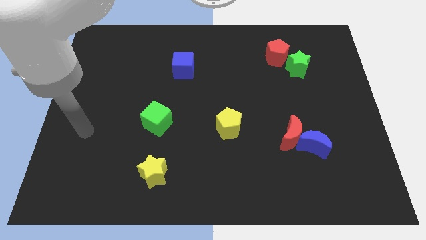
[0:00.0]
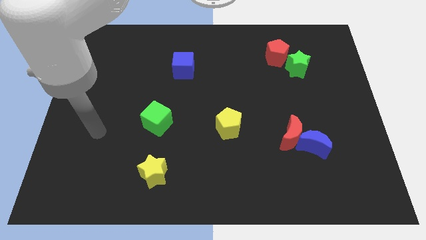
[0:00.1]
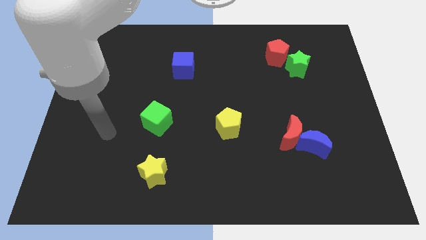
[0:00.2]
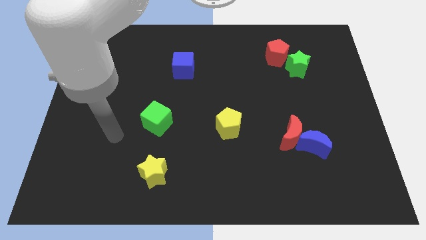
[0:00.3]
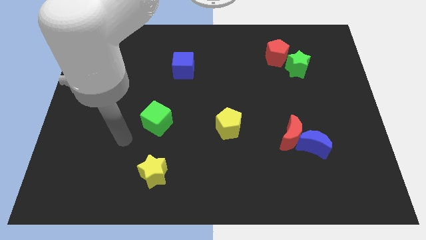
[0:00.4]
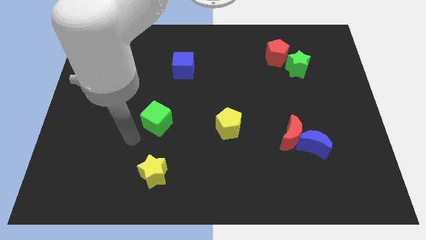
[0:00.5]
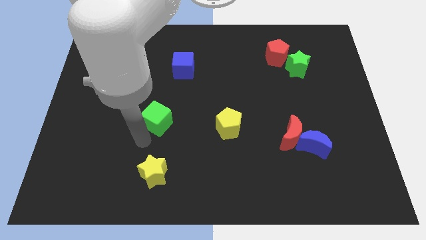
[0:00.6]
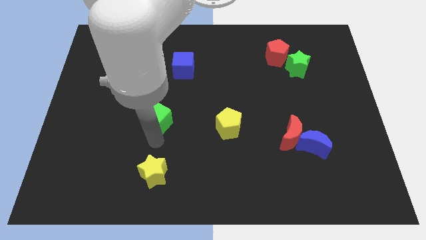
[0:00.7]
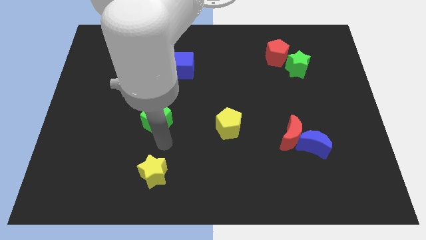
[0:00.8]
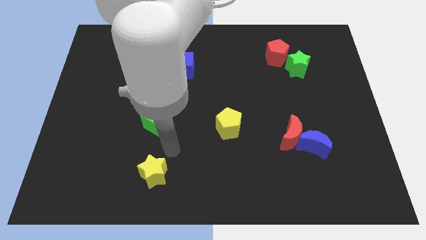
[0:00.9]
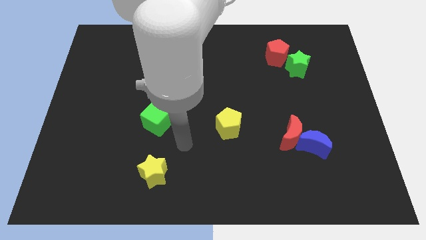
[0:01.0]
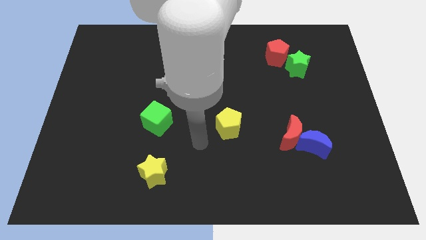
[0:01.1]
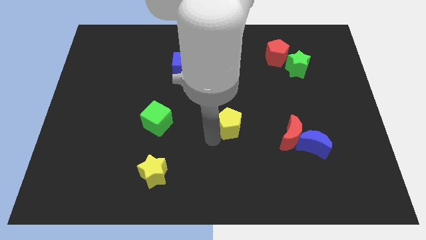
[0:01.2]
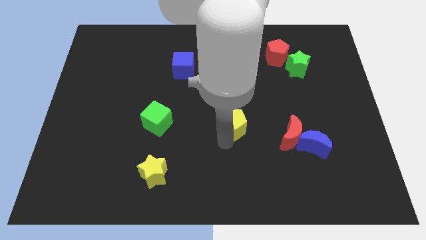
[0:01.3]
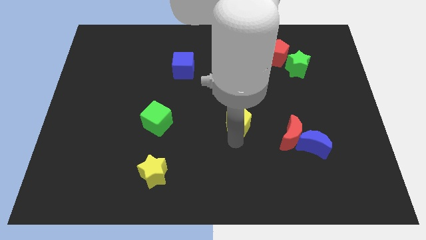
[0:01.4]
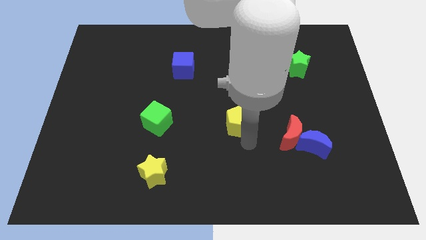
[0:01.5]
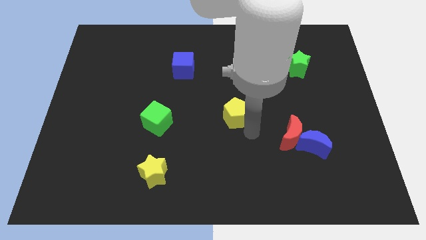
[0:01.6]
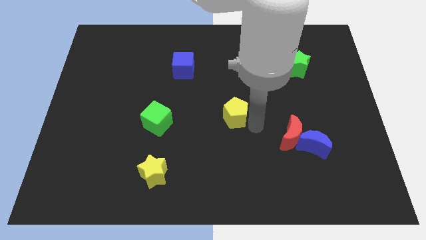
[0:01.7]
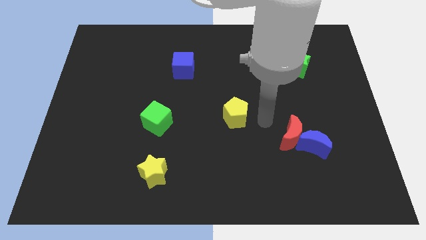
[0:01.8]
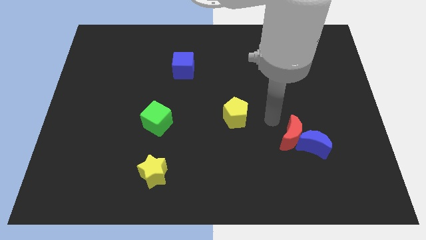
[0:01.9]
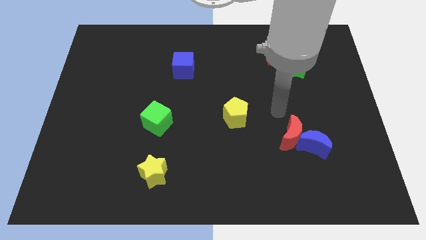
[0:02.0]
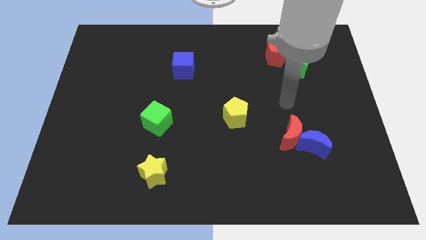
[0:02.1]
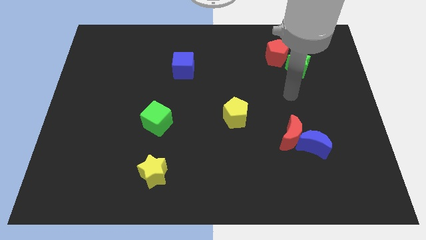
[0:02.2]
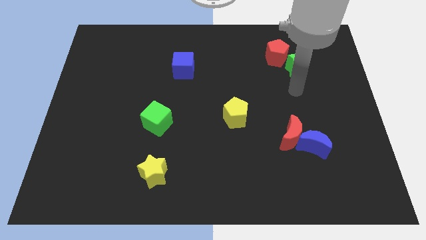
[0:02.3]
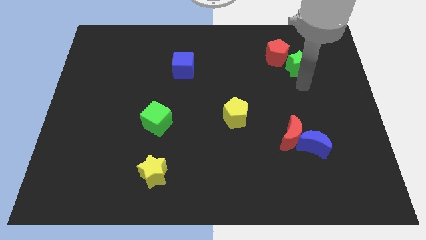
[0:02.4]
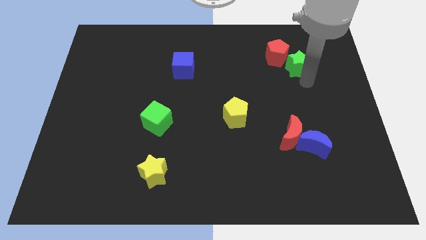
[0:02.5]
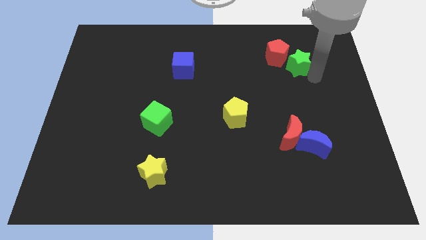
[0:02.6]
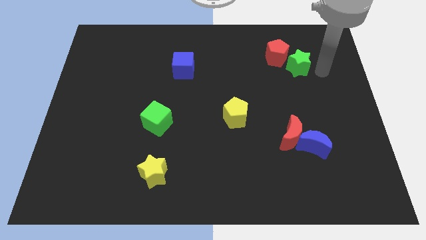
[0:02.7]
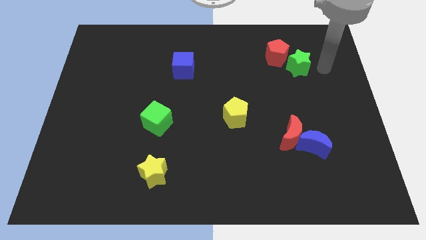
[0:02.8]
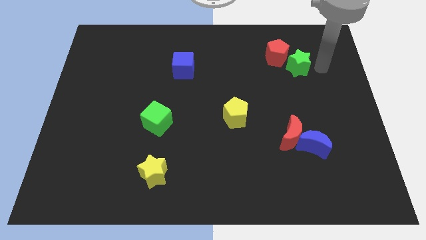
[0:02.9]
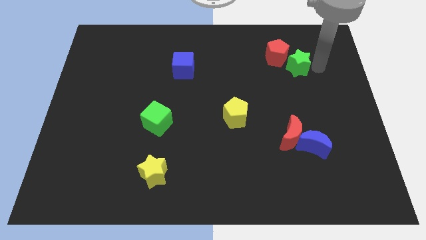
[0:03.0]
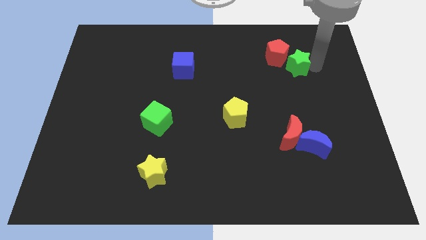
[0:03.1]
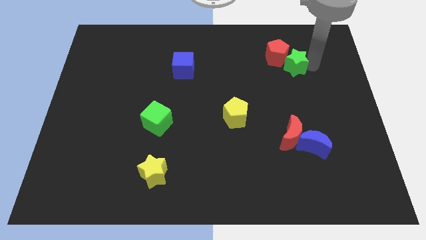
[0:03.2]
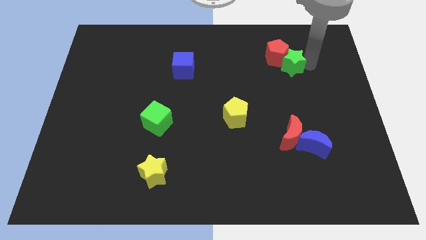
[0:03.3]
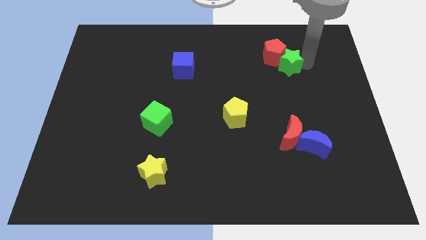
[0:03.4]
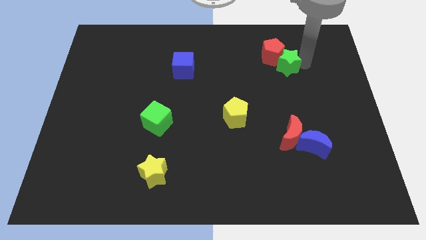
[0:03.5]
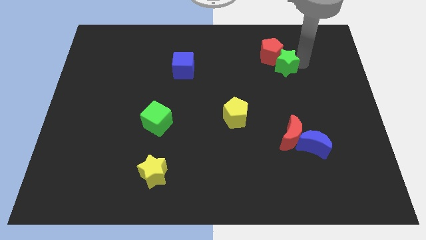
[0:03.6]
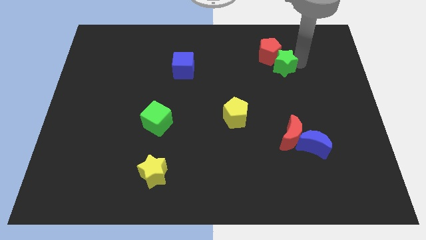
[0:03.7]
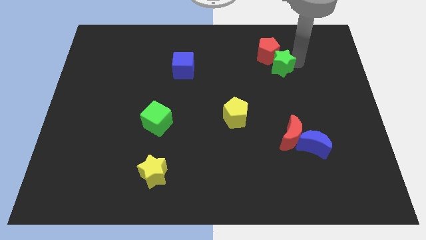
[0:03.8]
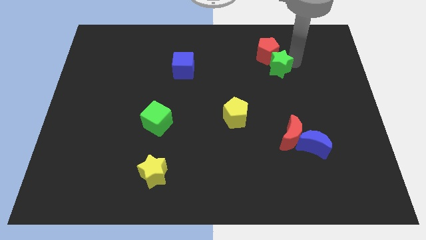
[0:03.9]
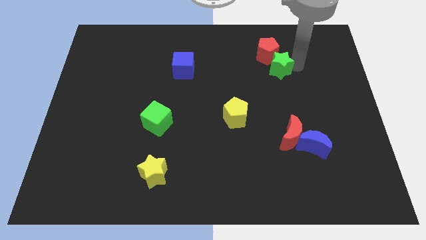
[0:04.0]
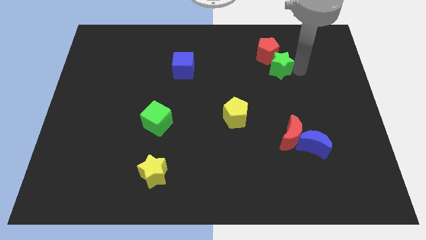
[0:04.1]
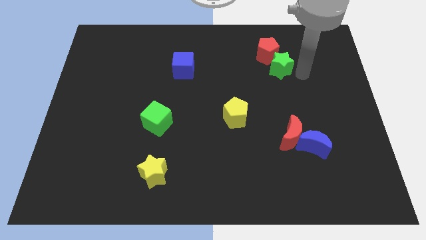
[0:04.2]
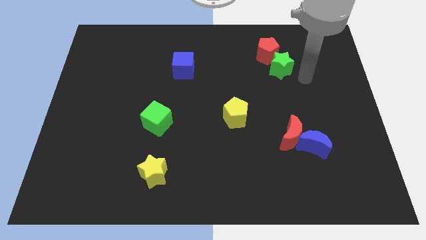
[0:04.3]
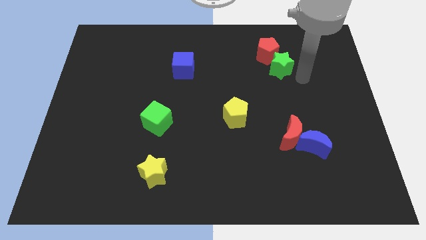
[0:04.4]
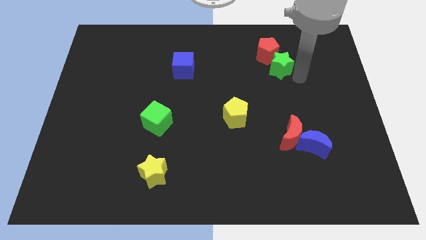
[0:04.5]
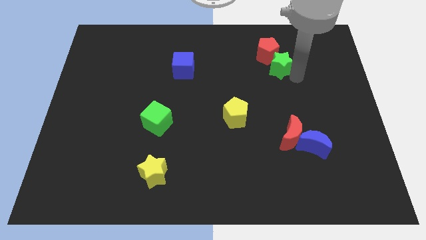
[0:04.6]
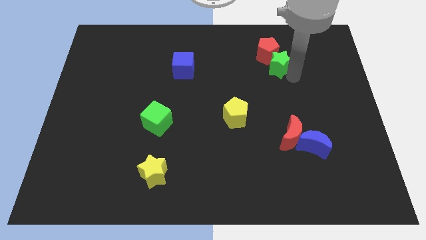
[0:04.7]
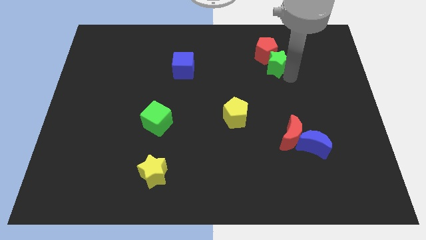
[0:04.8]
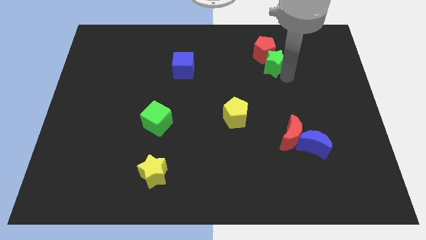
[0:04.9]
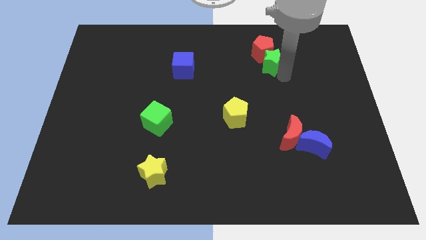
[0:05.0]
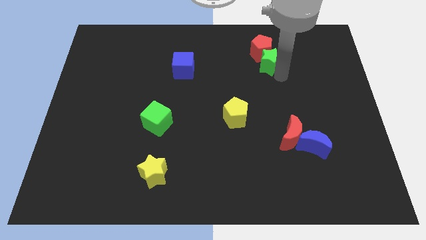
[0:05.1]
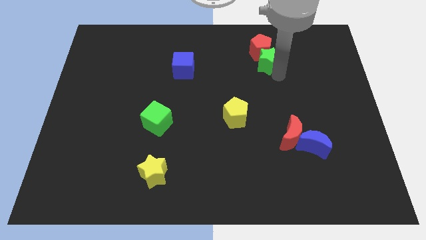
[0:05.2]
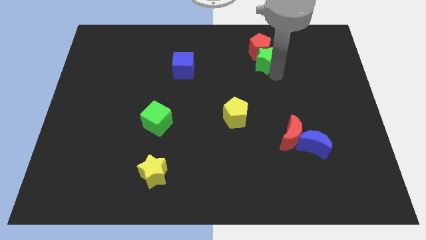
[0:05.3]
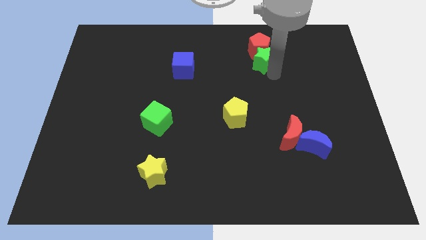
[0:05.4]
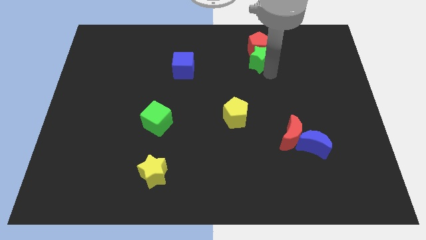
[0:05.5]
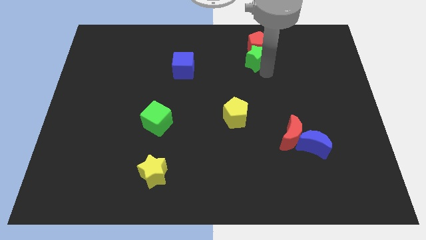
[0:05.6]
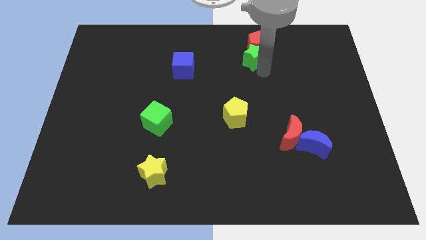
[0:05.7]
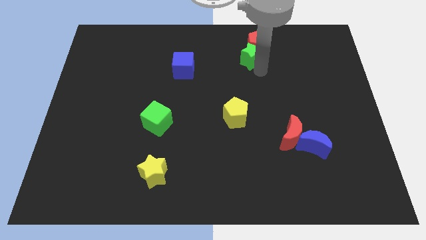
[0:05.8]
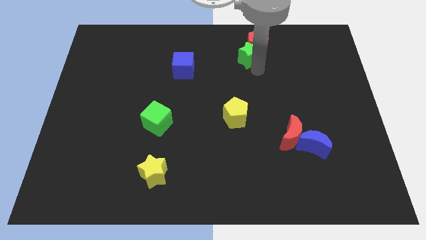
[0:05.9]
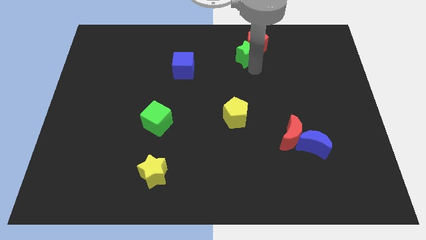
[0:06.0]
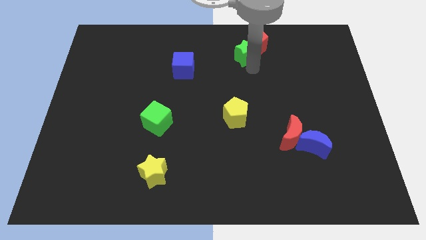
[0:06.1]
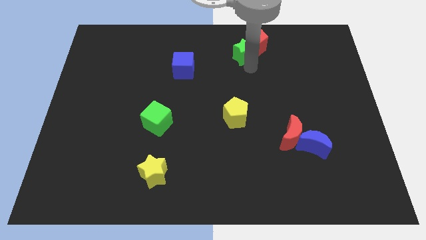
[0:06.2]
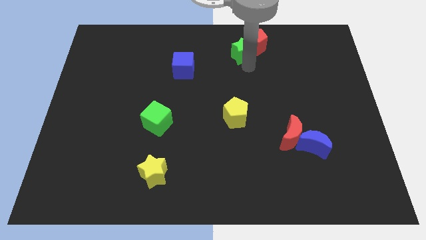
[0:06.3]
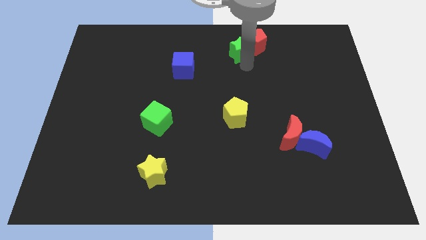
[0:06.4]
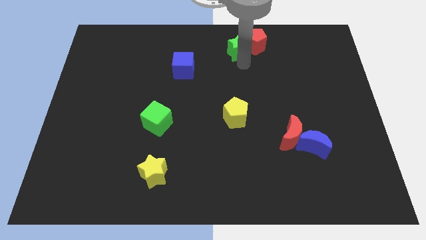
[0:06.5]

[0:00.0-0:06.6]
put the green star to the towards your base
